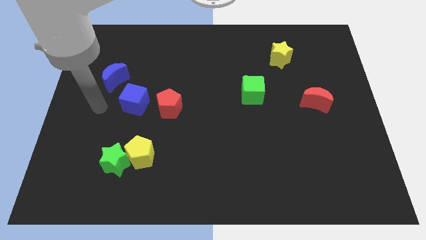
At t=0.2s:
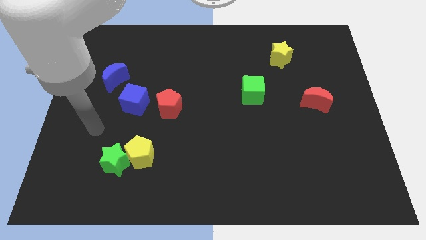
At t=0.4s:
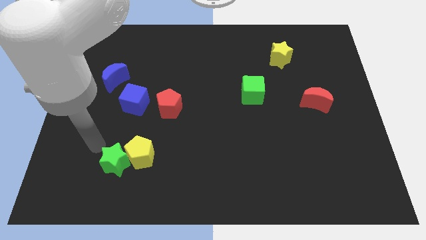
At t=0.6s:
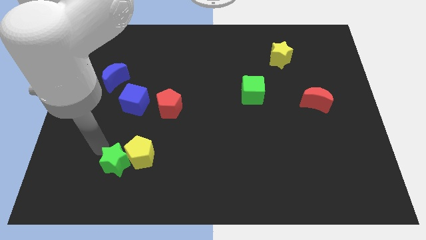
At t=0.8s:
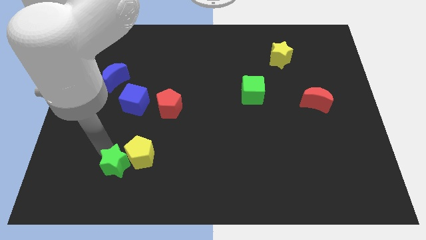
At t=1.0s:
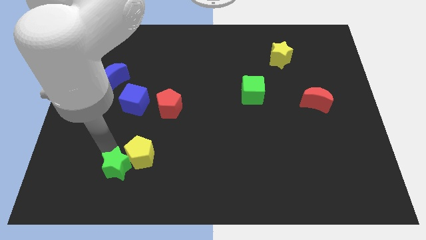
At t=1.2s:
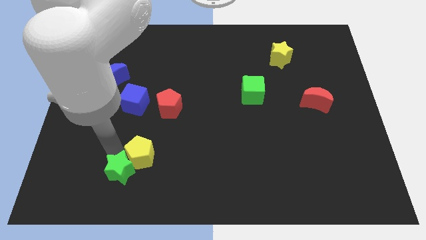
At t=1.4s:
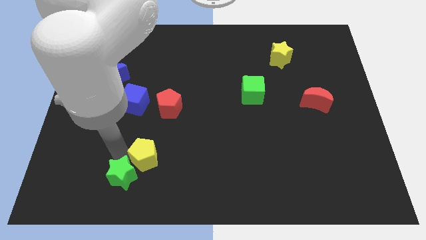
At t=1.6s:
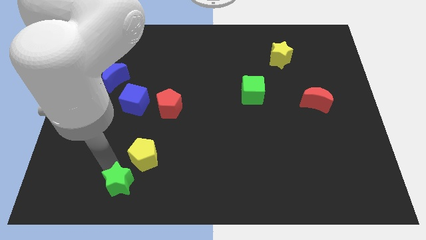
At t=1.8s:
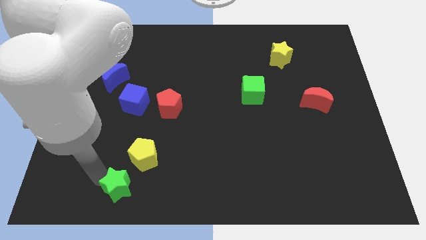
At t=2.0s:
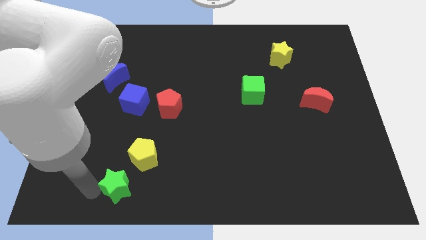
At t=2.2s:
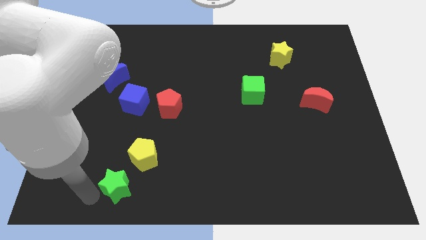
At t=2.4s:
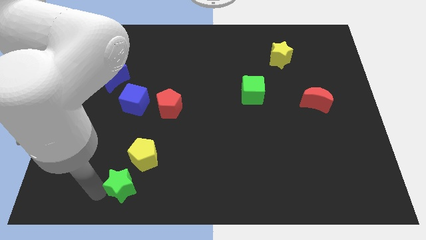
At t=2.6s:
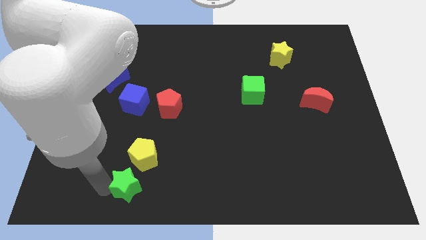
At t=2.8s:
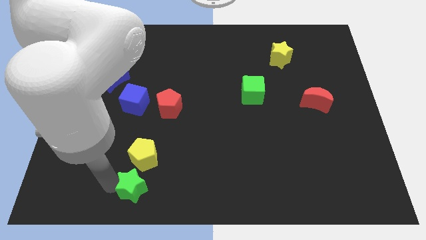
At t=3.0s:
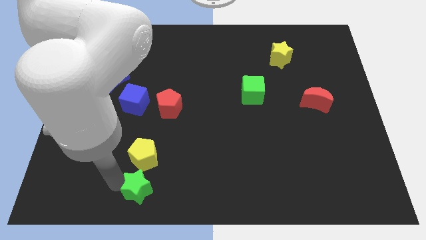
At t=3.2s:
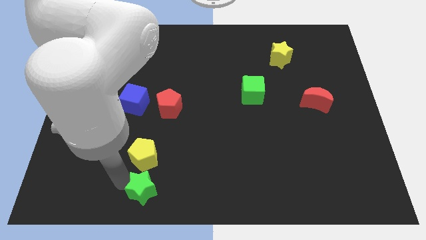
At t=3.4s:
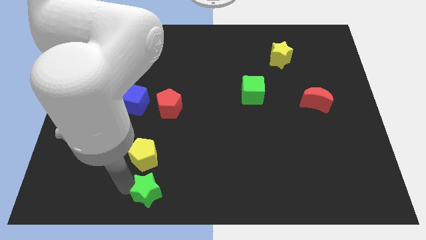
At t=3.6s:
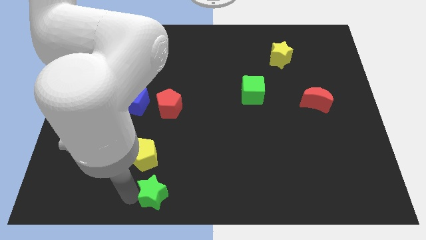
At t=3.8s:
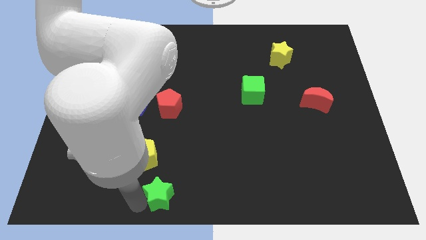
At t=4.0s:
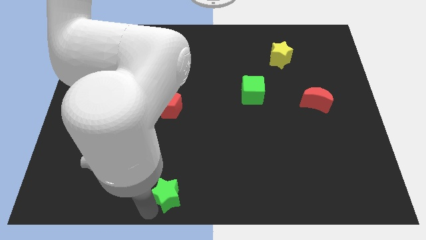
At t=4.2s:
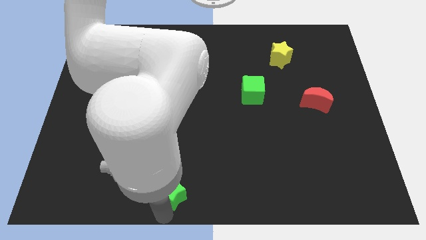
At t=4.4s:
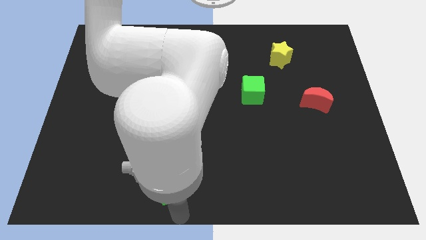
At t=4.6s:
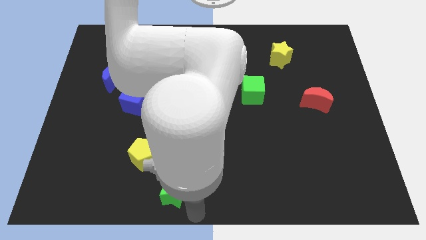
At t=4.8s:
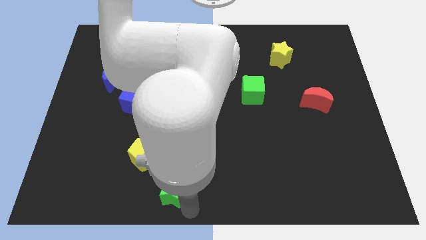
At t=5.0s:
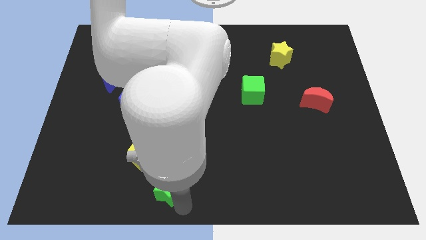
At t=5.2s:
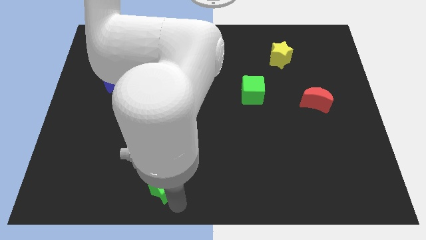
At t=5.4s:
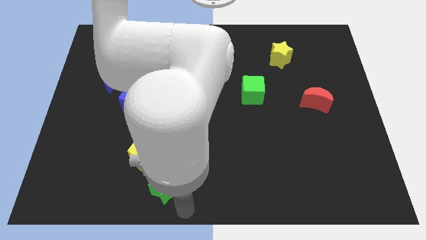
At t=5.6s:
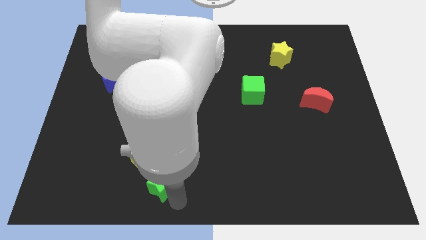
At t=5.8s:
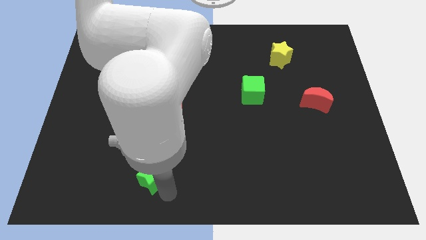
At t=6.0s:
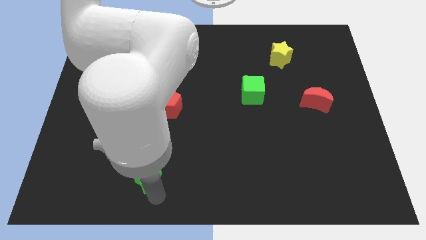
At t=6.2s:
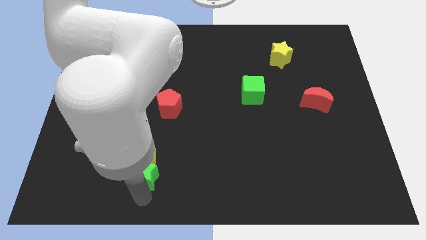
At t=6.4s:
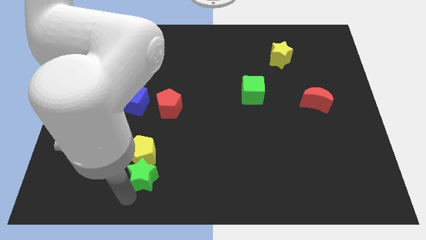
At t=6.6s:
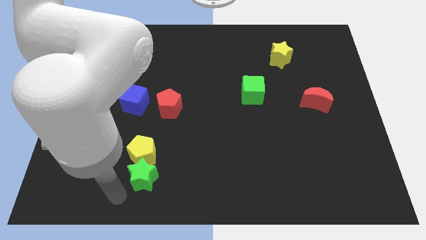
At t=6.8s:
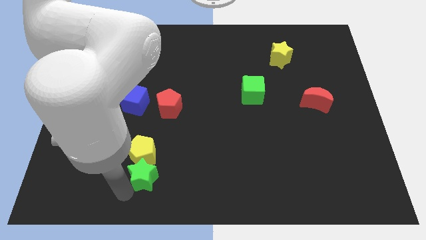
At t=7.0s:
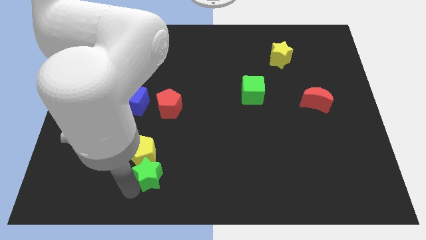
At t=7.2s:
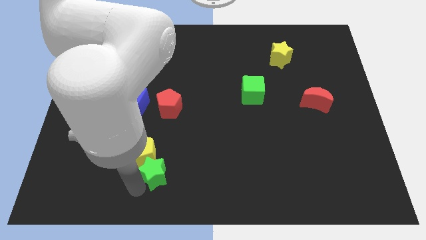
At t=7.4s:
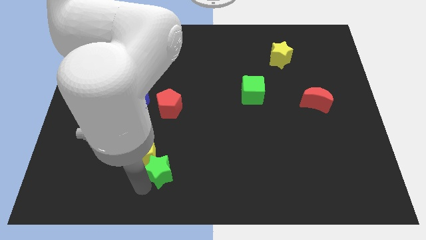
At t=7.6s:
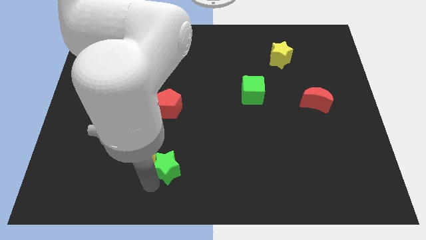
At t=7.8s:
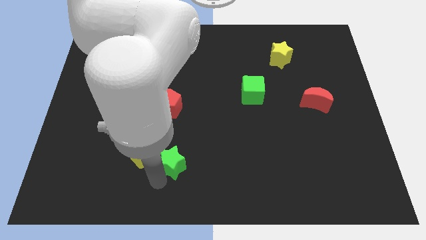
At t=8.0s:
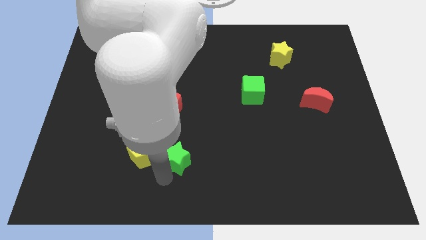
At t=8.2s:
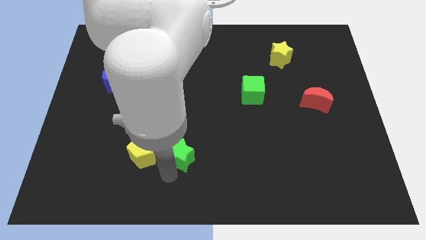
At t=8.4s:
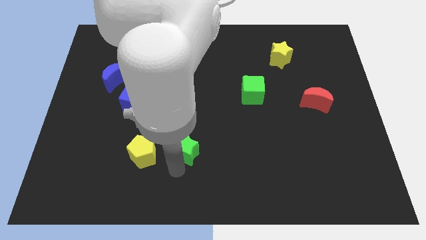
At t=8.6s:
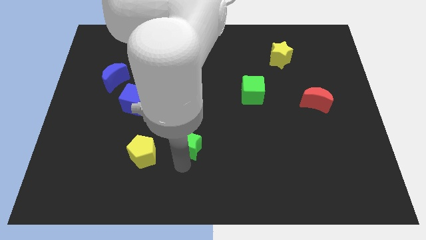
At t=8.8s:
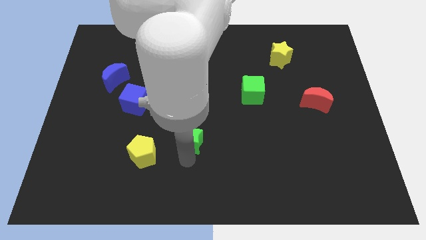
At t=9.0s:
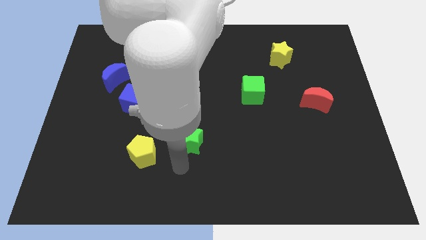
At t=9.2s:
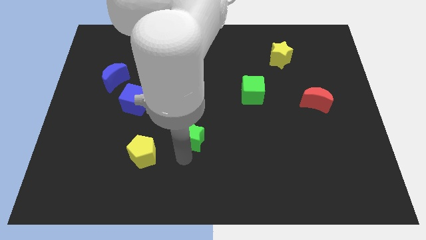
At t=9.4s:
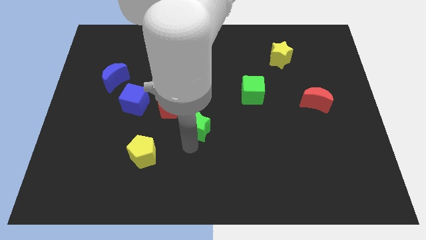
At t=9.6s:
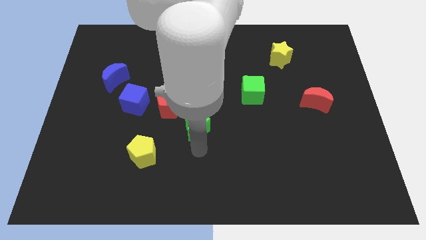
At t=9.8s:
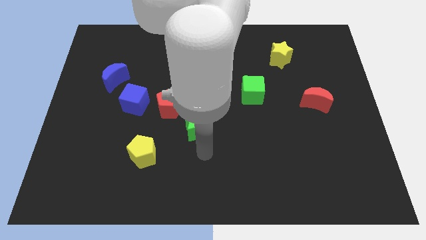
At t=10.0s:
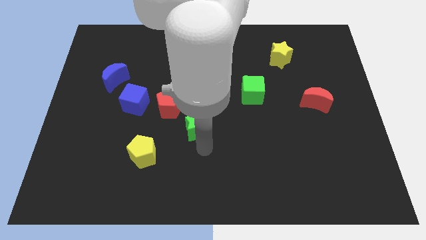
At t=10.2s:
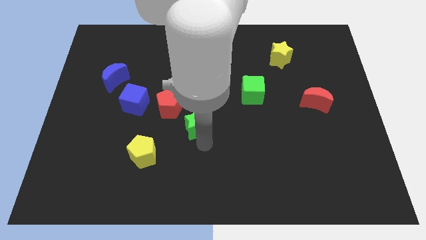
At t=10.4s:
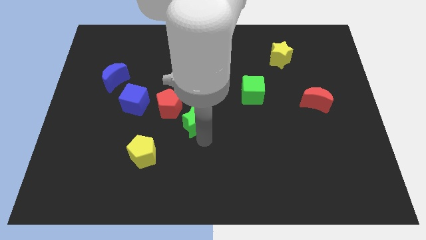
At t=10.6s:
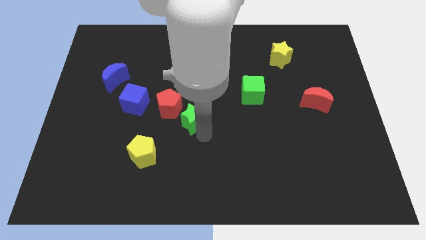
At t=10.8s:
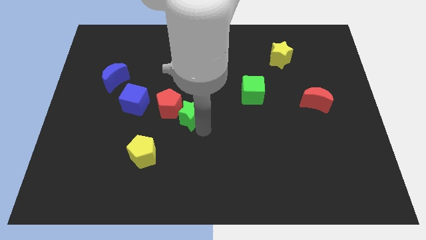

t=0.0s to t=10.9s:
put the green star to the right side of the blue cube

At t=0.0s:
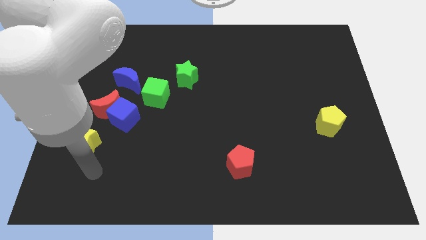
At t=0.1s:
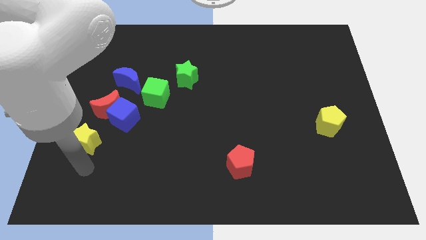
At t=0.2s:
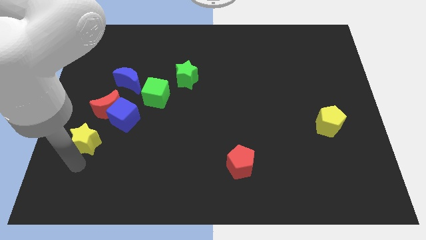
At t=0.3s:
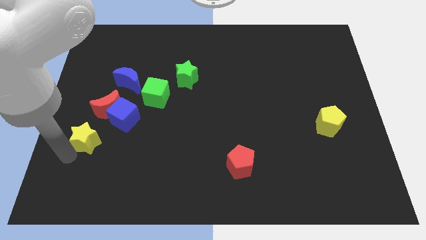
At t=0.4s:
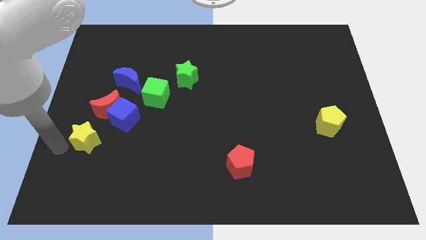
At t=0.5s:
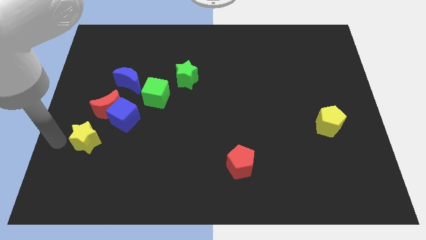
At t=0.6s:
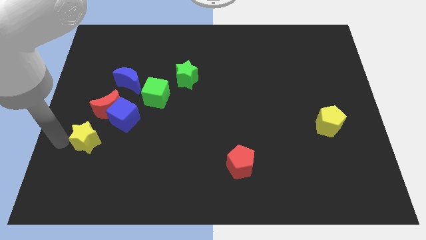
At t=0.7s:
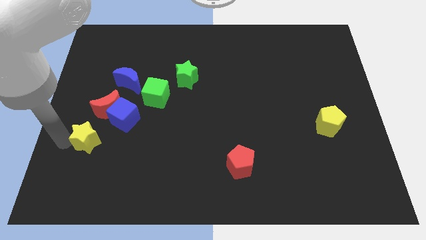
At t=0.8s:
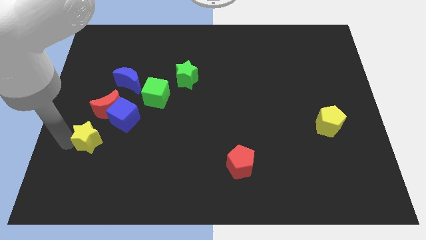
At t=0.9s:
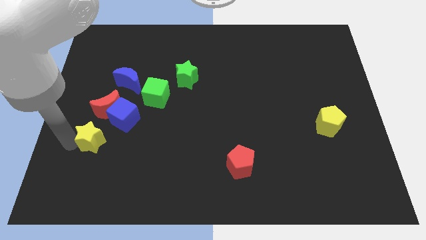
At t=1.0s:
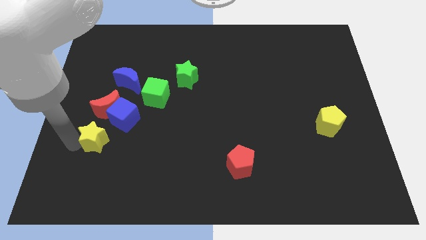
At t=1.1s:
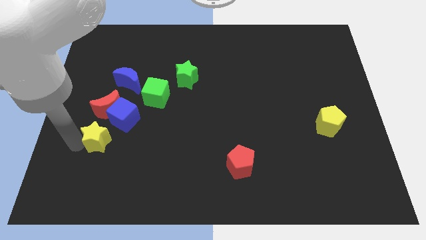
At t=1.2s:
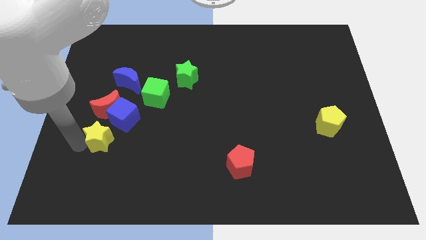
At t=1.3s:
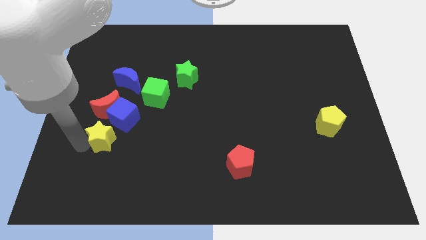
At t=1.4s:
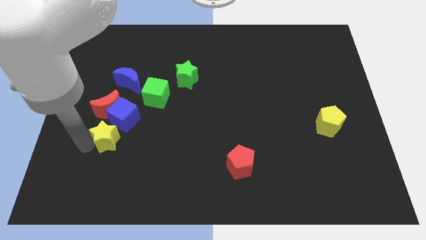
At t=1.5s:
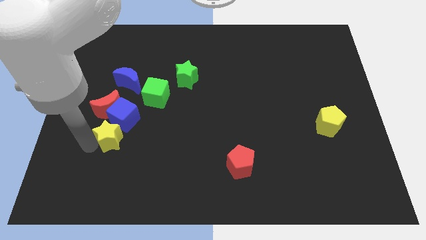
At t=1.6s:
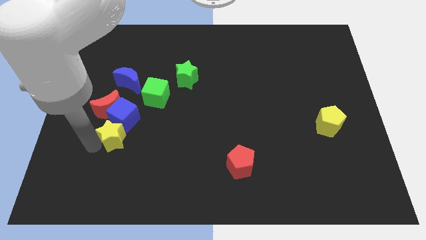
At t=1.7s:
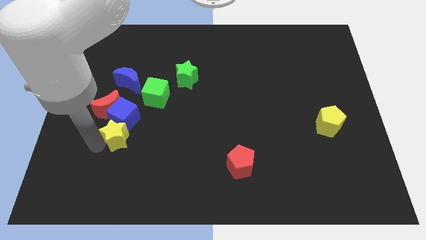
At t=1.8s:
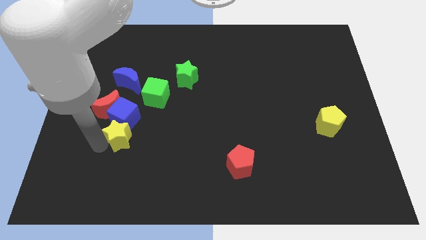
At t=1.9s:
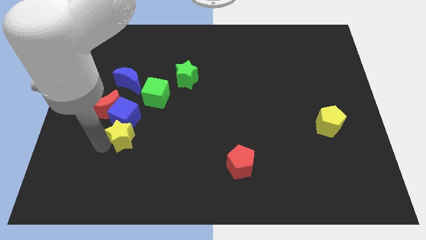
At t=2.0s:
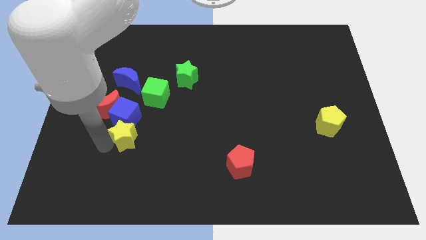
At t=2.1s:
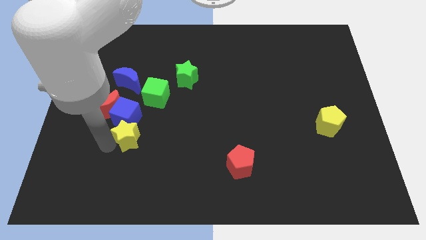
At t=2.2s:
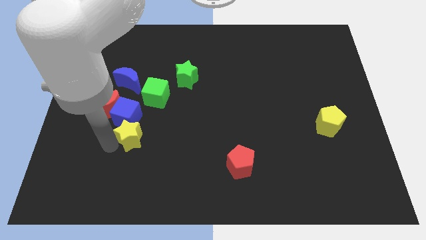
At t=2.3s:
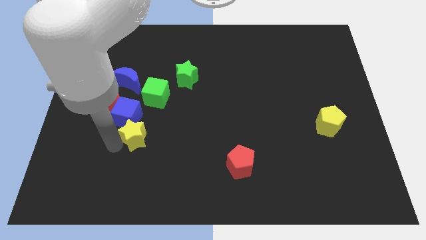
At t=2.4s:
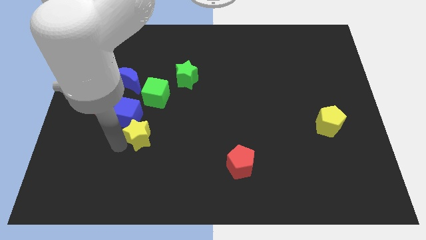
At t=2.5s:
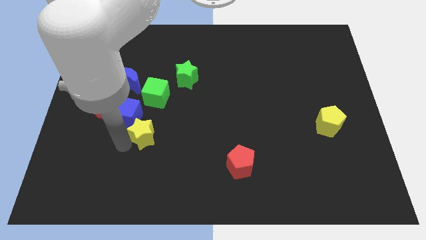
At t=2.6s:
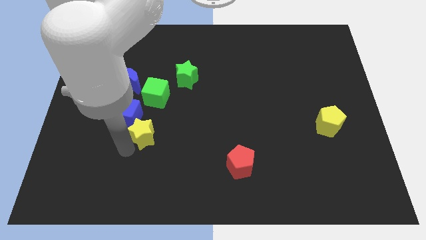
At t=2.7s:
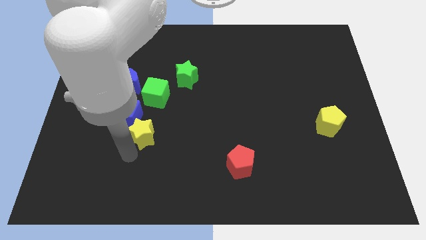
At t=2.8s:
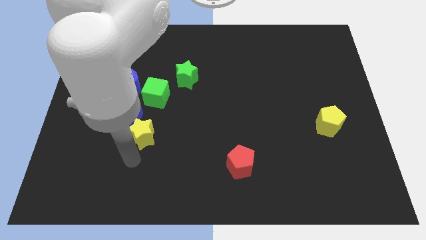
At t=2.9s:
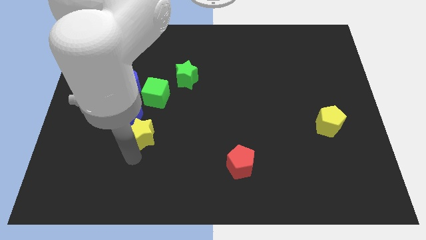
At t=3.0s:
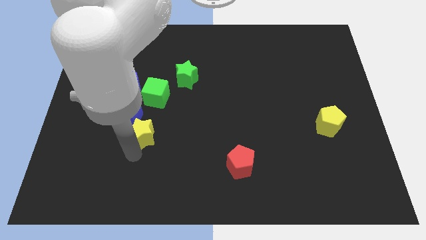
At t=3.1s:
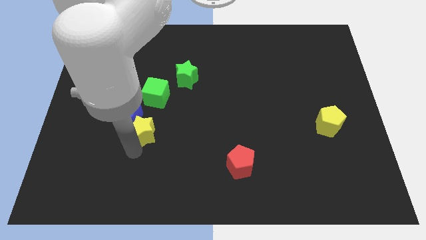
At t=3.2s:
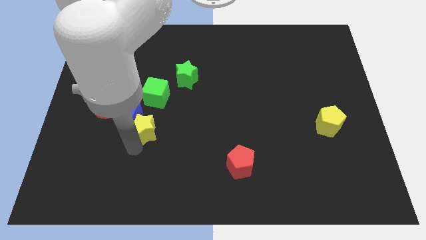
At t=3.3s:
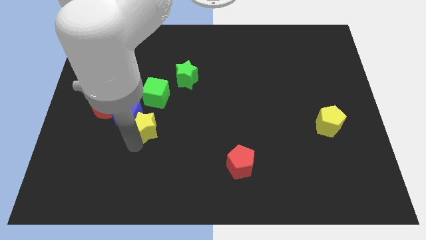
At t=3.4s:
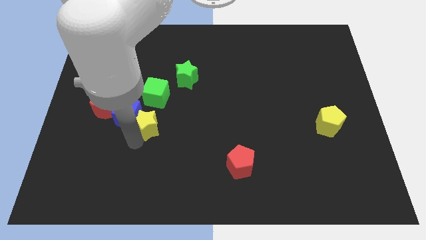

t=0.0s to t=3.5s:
put the yellow star to the right of the red moon
